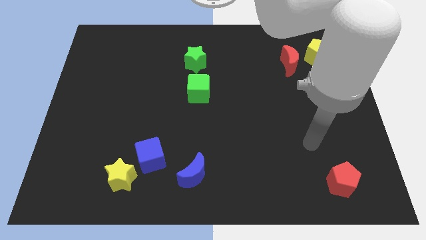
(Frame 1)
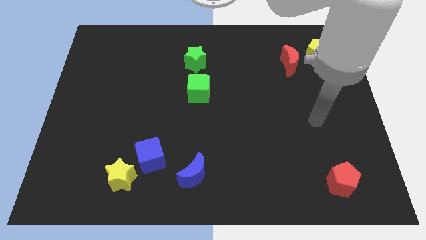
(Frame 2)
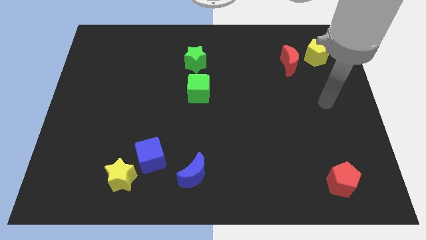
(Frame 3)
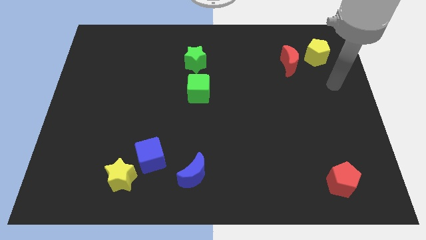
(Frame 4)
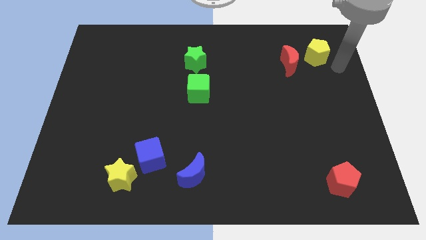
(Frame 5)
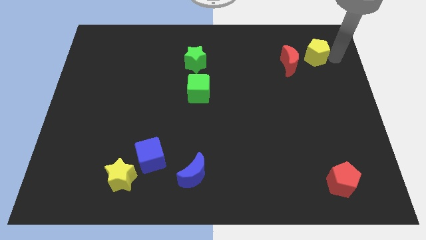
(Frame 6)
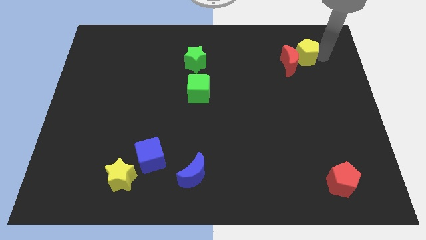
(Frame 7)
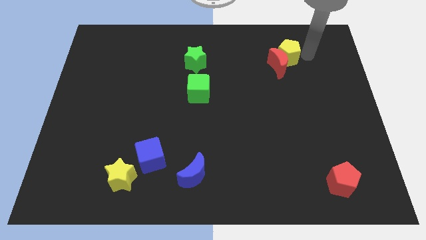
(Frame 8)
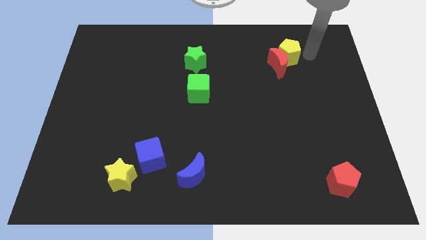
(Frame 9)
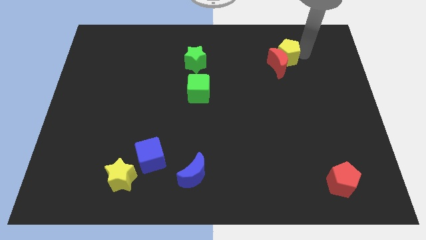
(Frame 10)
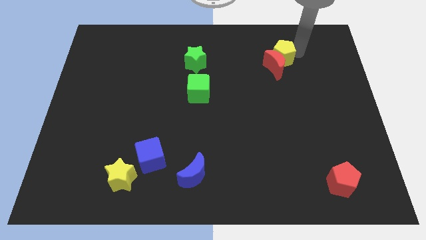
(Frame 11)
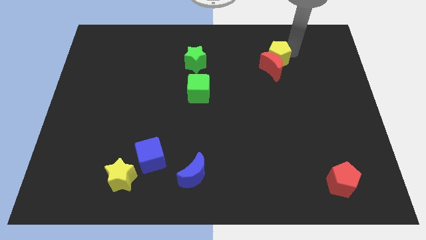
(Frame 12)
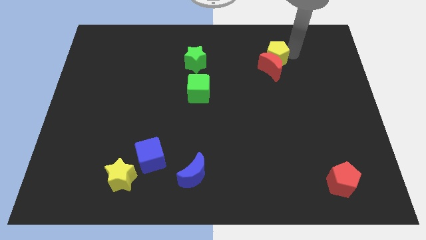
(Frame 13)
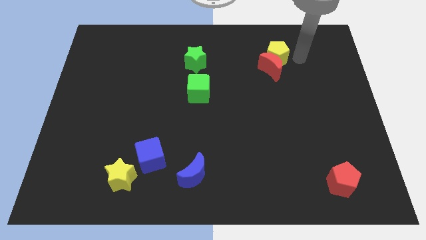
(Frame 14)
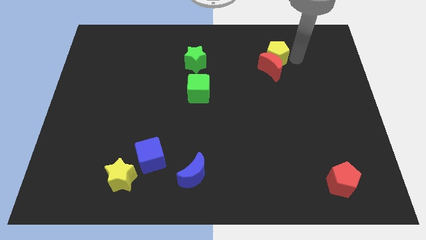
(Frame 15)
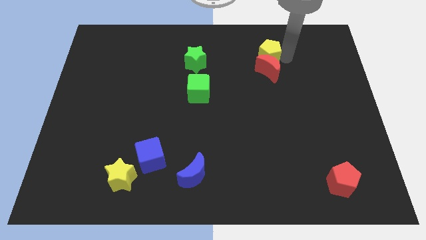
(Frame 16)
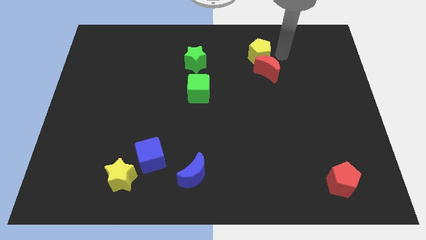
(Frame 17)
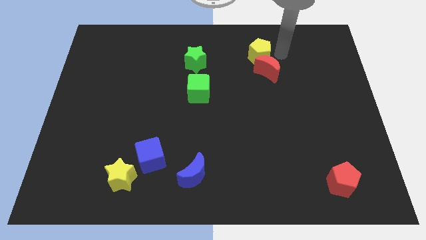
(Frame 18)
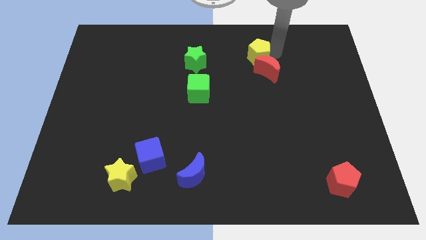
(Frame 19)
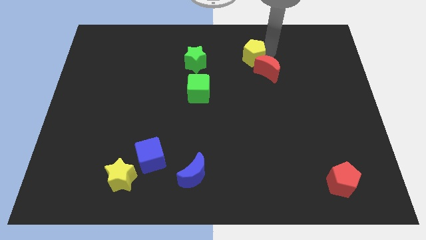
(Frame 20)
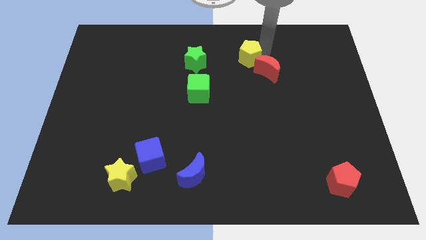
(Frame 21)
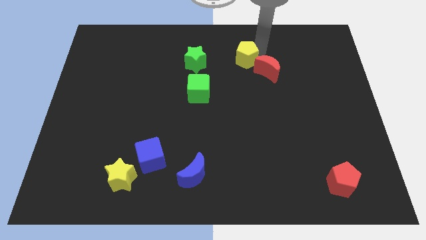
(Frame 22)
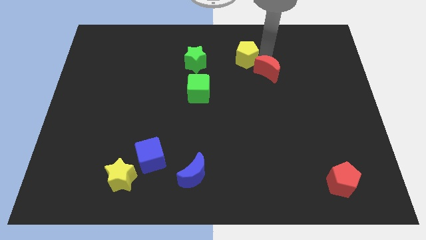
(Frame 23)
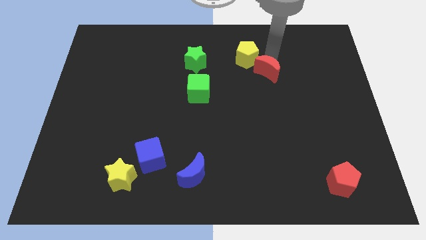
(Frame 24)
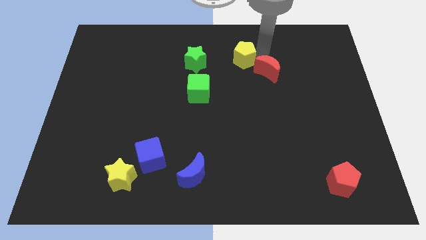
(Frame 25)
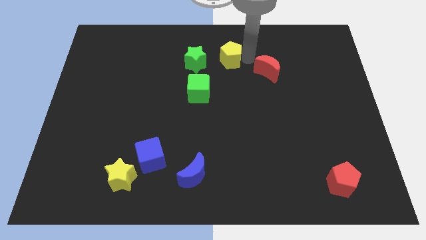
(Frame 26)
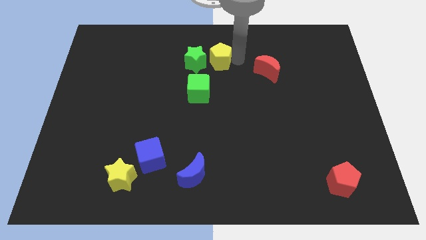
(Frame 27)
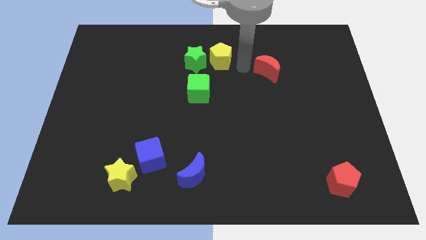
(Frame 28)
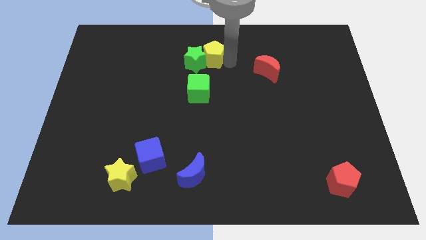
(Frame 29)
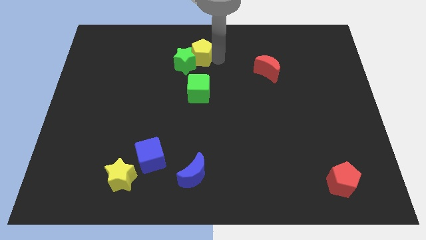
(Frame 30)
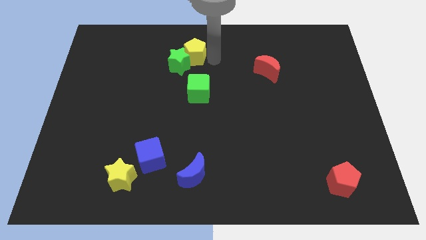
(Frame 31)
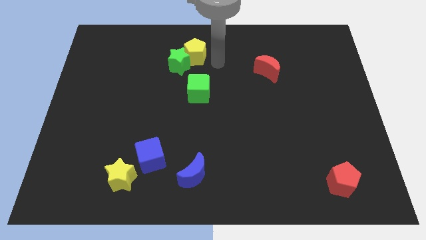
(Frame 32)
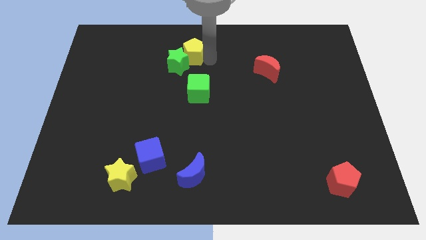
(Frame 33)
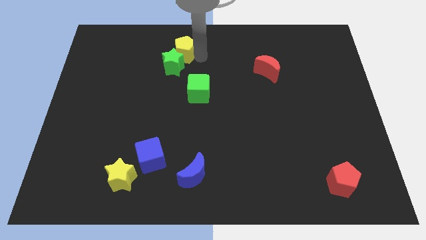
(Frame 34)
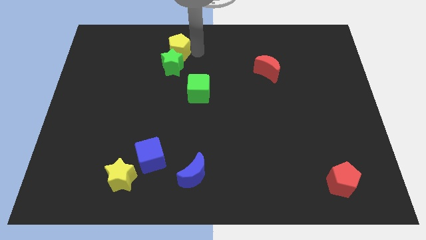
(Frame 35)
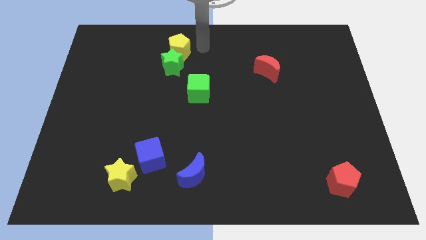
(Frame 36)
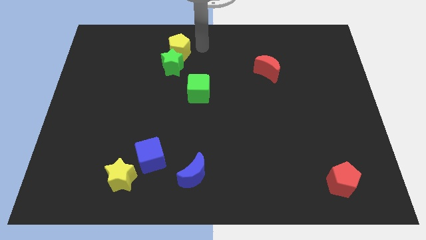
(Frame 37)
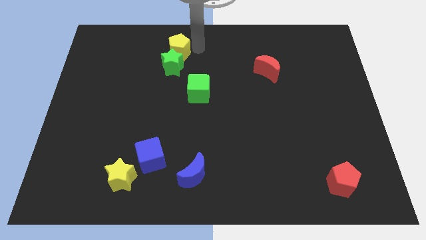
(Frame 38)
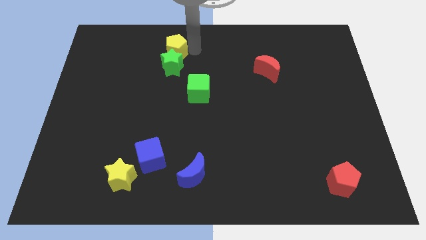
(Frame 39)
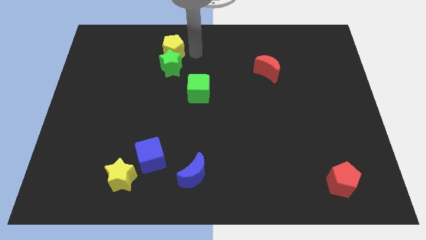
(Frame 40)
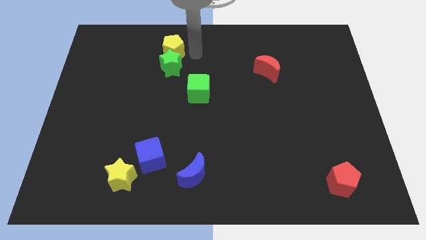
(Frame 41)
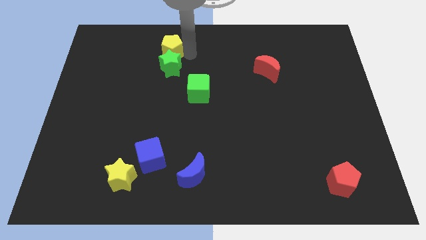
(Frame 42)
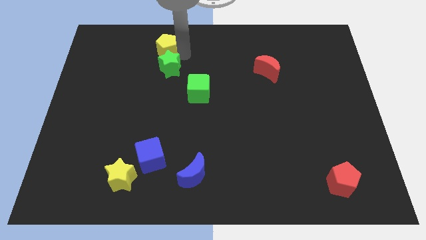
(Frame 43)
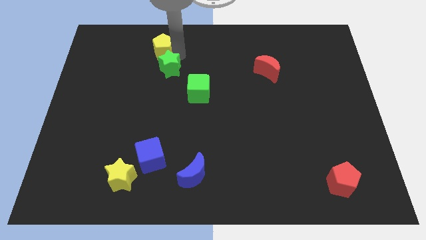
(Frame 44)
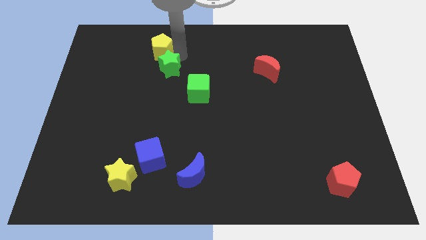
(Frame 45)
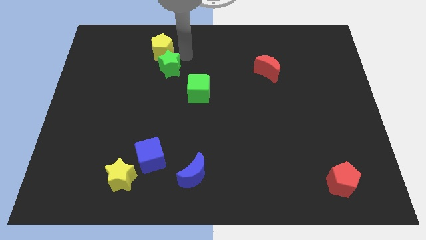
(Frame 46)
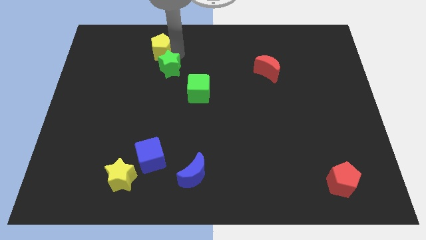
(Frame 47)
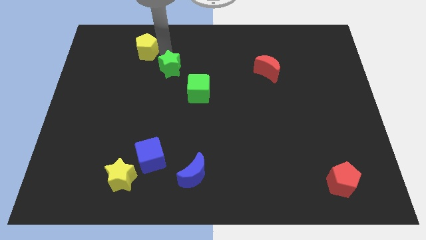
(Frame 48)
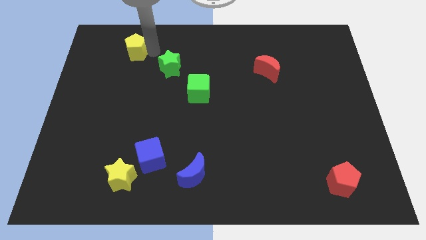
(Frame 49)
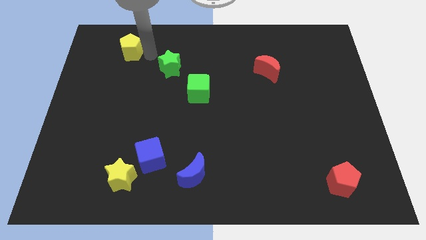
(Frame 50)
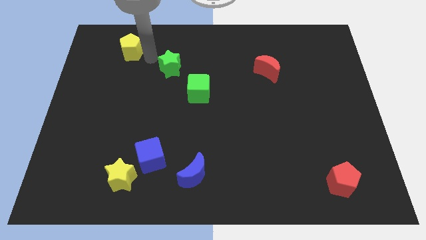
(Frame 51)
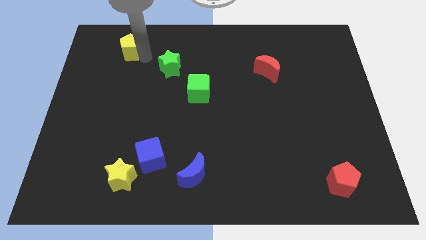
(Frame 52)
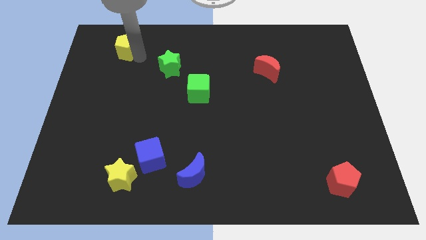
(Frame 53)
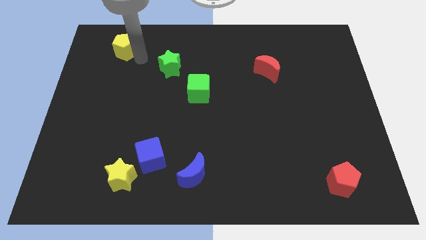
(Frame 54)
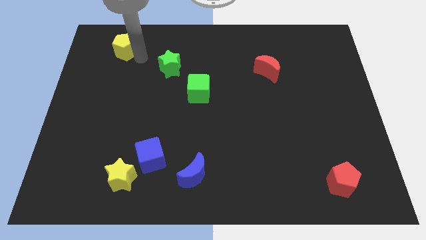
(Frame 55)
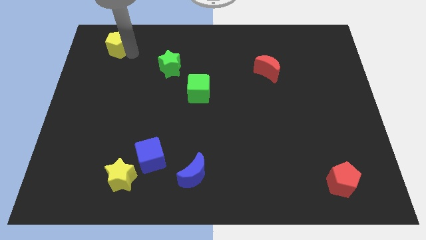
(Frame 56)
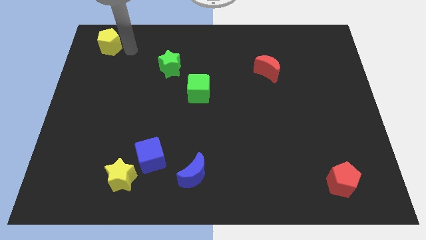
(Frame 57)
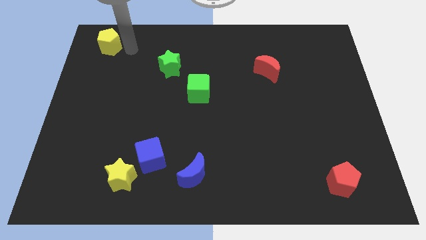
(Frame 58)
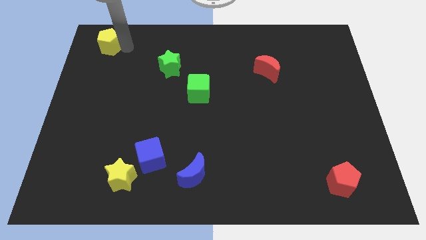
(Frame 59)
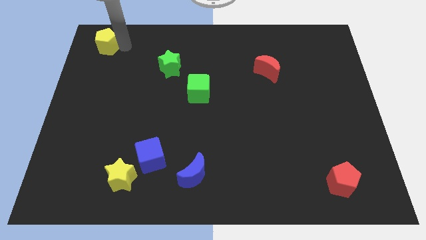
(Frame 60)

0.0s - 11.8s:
put the yellow pentagon to the upper left corner

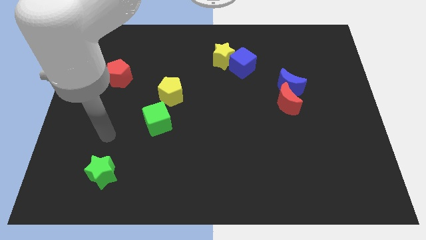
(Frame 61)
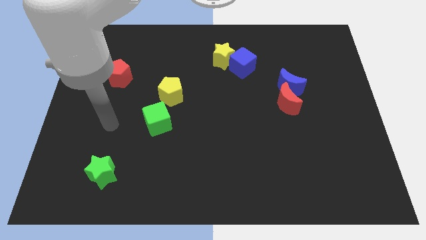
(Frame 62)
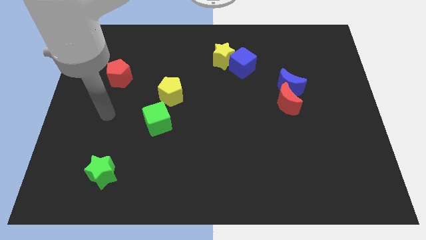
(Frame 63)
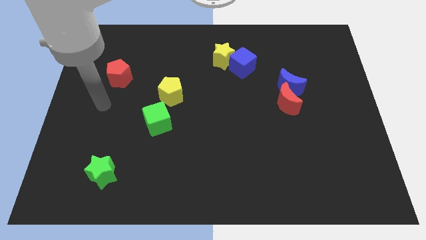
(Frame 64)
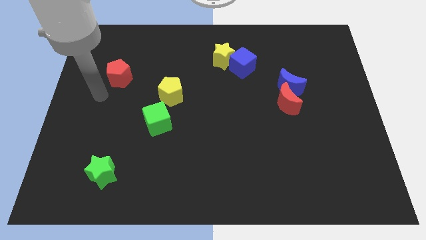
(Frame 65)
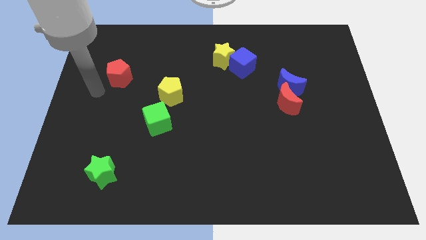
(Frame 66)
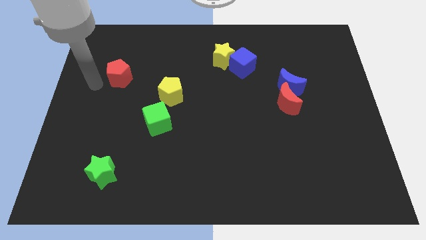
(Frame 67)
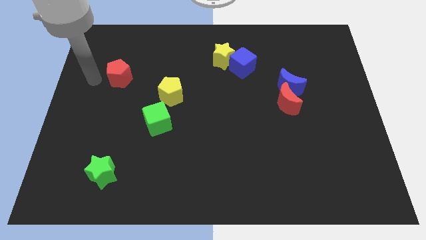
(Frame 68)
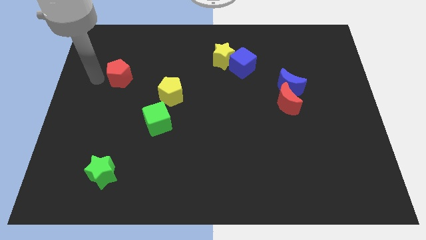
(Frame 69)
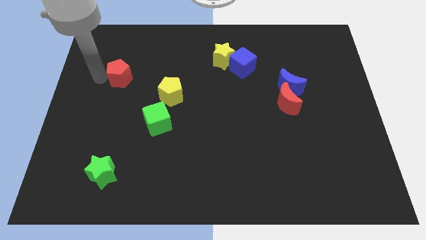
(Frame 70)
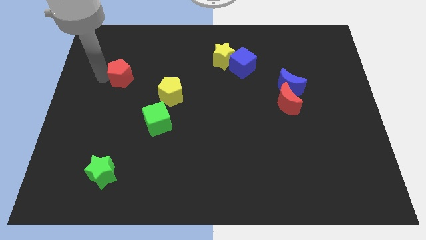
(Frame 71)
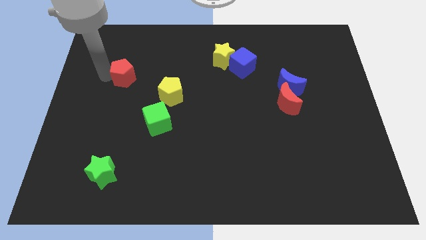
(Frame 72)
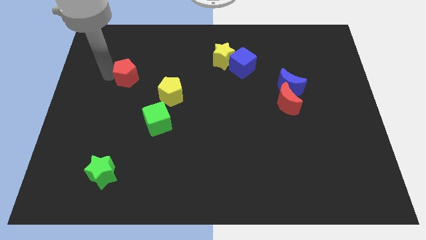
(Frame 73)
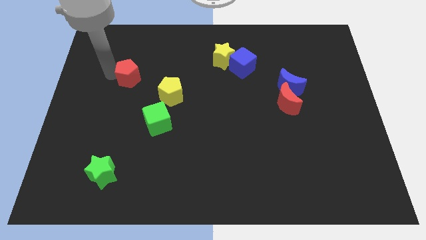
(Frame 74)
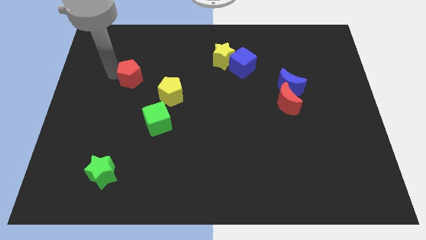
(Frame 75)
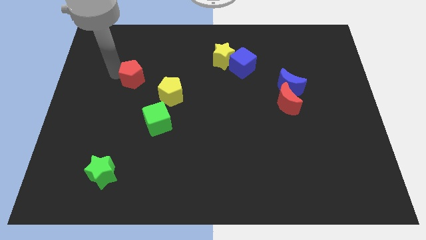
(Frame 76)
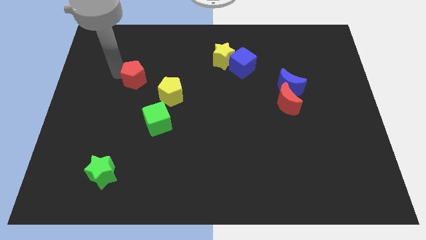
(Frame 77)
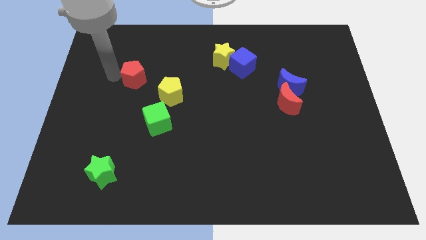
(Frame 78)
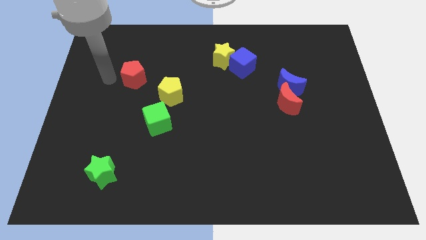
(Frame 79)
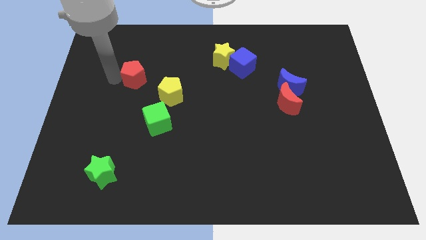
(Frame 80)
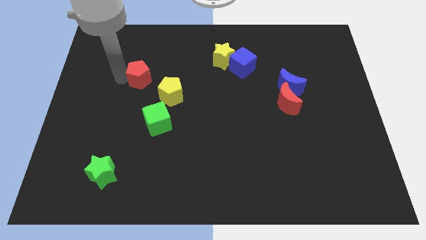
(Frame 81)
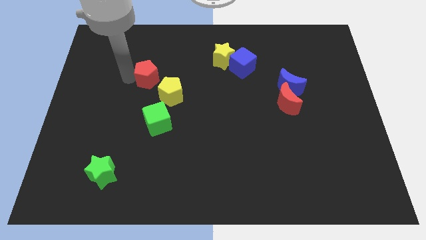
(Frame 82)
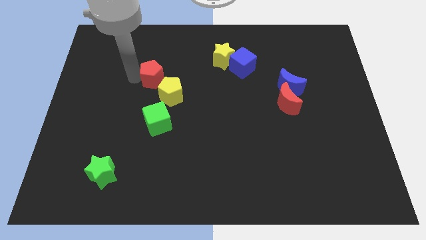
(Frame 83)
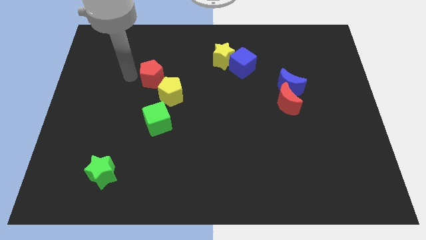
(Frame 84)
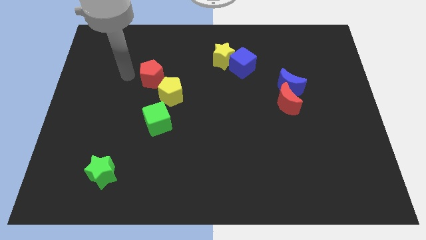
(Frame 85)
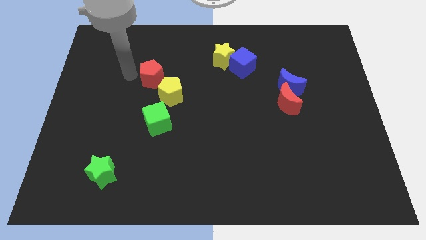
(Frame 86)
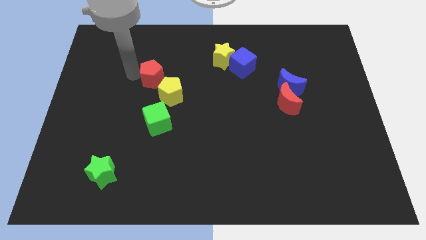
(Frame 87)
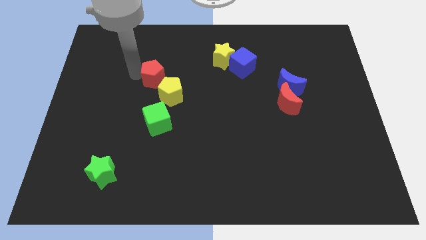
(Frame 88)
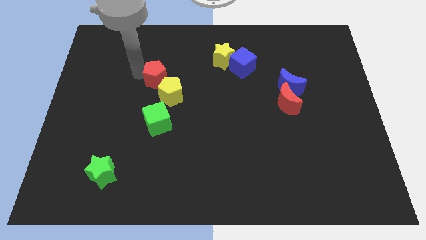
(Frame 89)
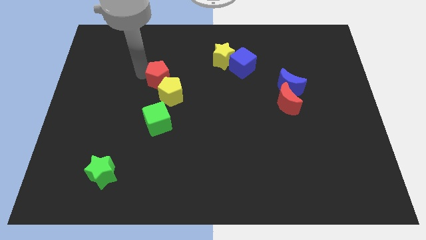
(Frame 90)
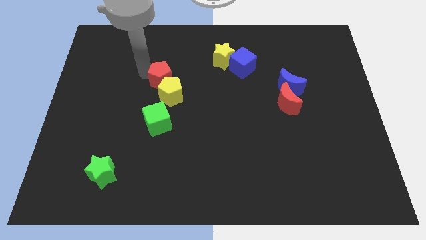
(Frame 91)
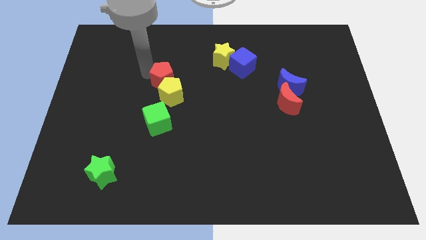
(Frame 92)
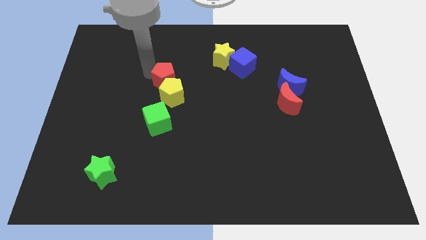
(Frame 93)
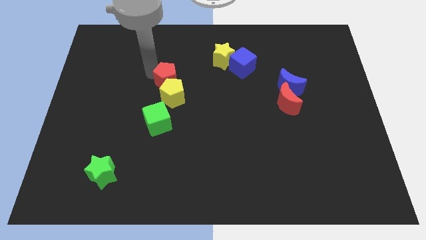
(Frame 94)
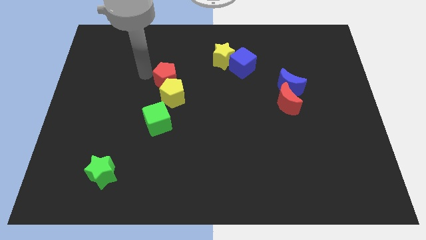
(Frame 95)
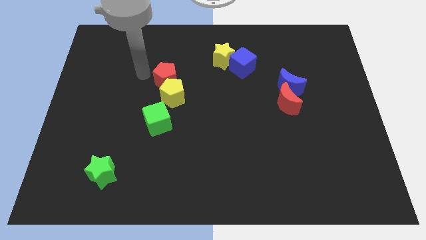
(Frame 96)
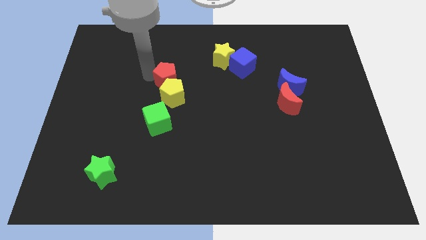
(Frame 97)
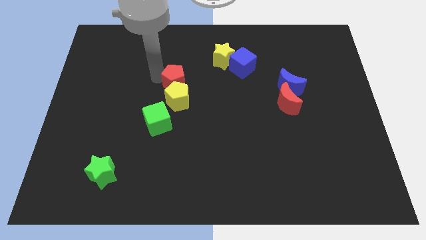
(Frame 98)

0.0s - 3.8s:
move the red pentagon to the middle
